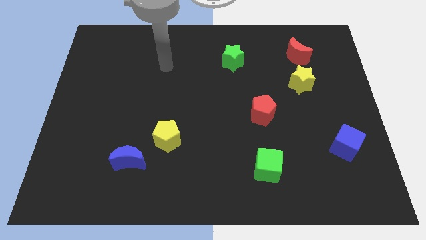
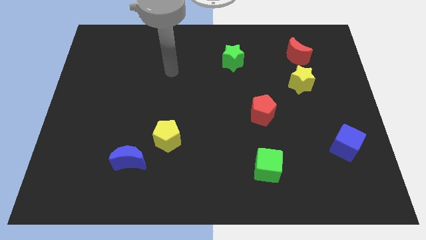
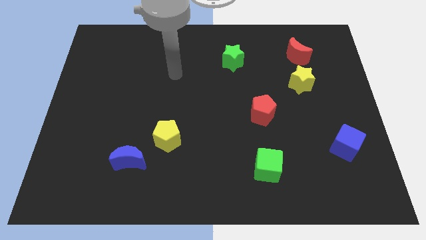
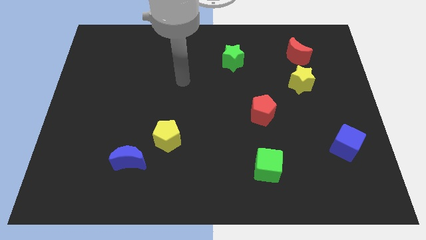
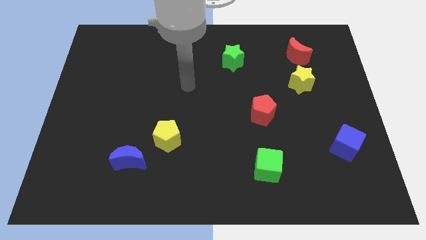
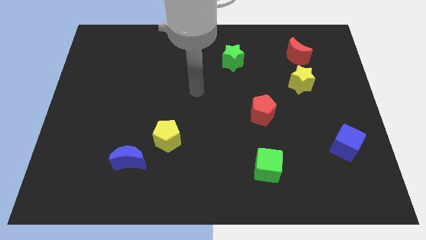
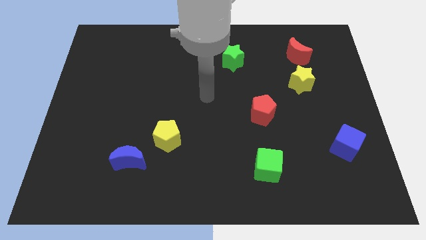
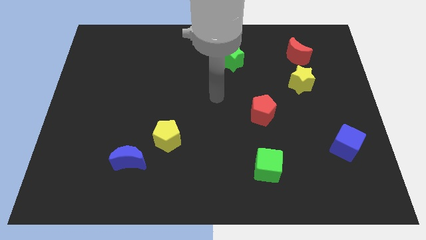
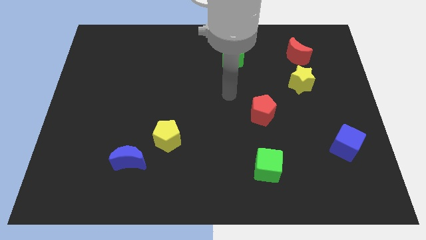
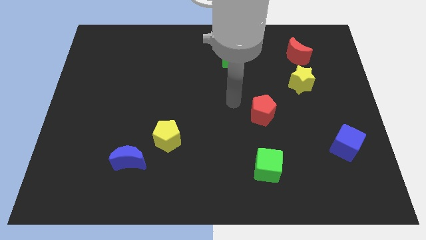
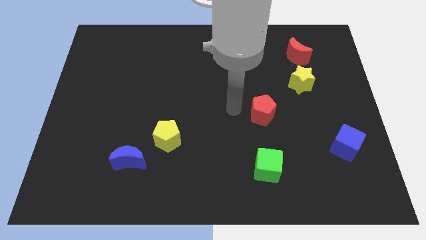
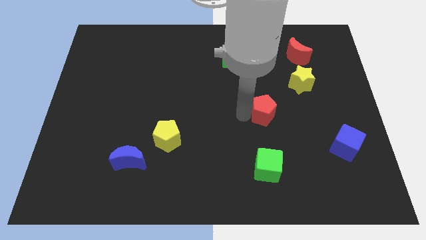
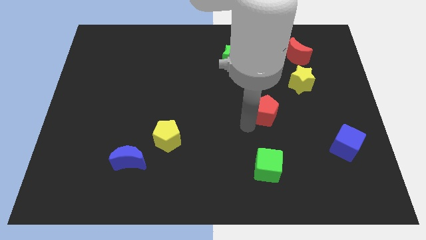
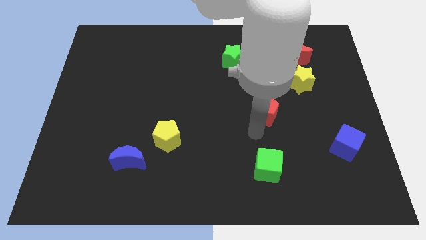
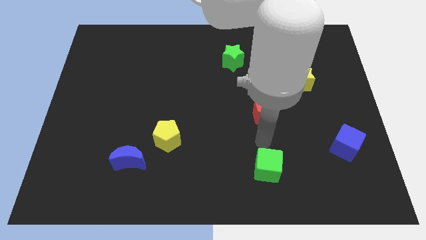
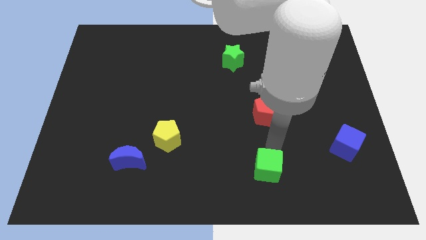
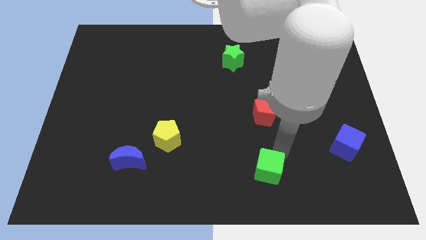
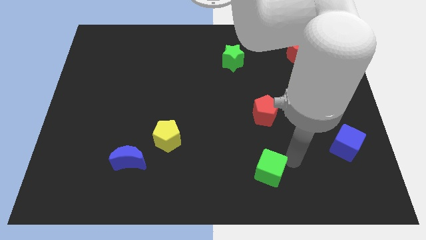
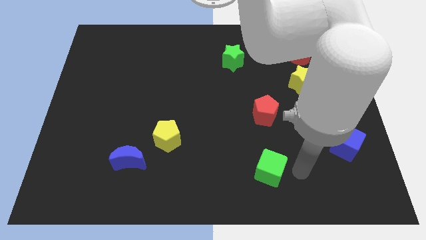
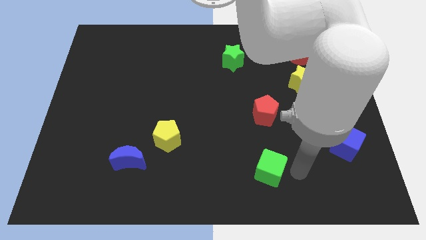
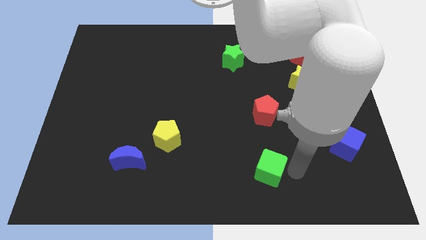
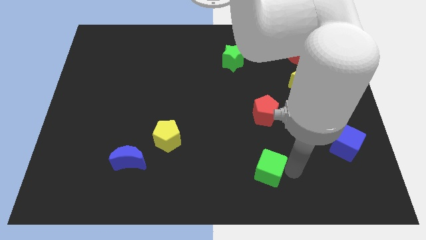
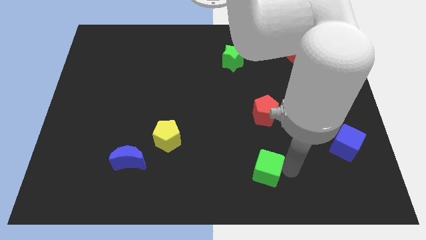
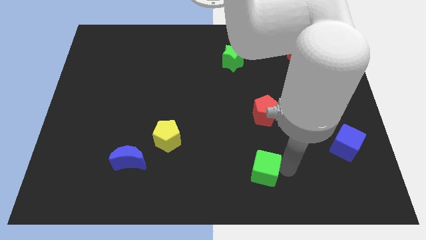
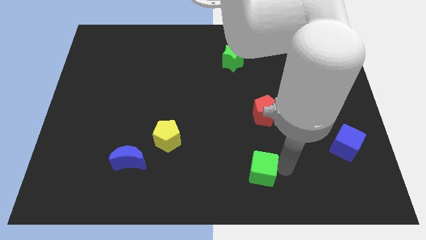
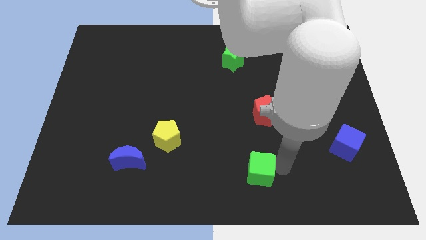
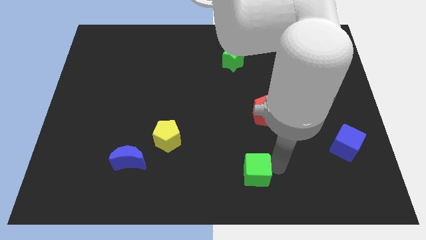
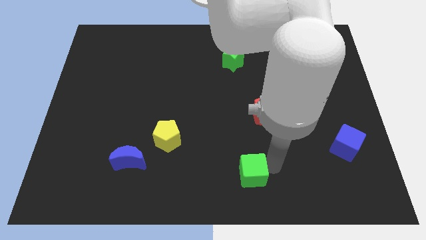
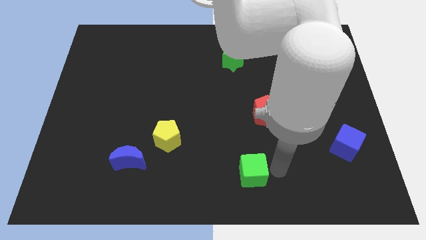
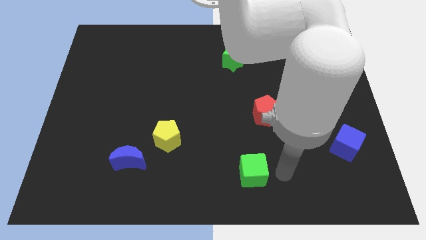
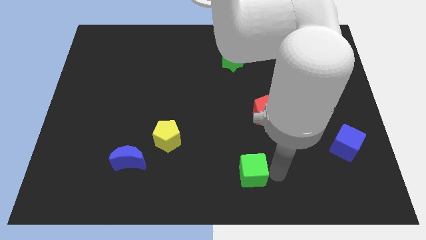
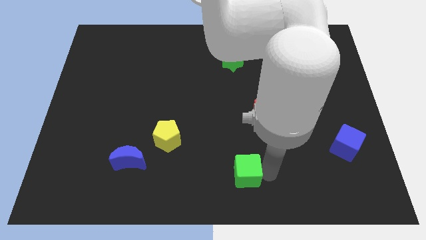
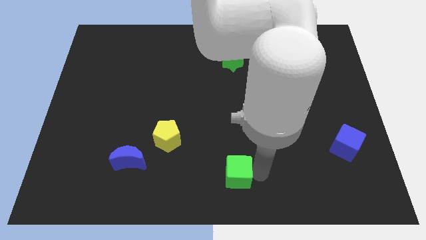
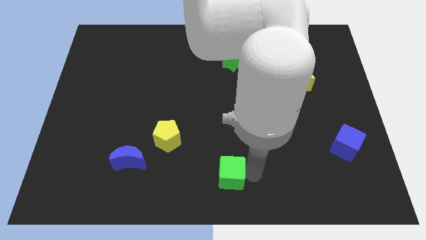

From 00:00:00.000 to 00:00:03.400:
slightly move the green cube to the left

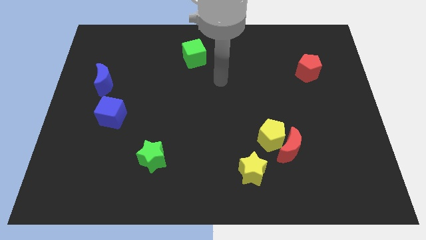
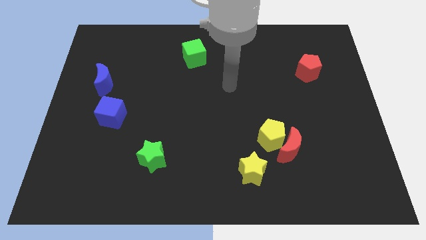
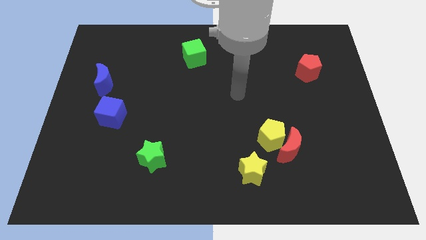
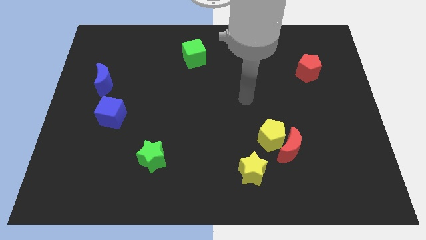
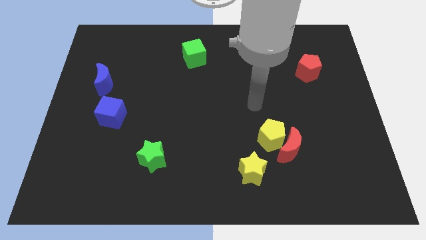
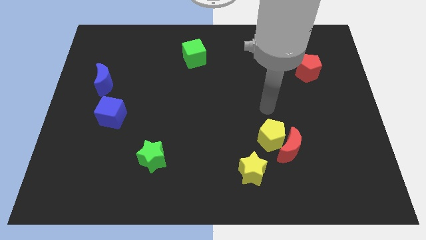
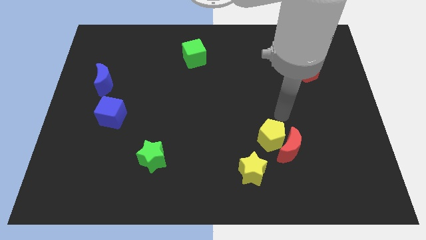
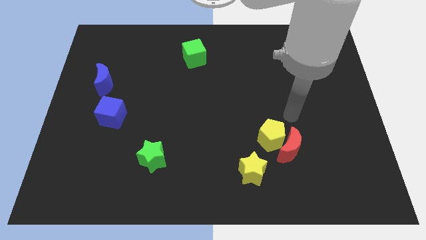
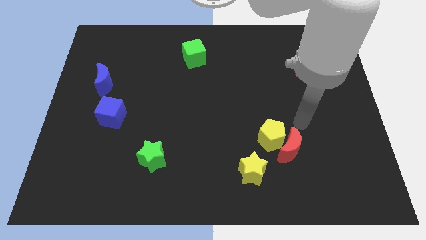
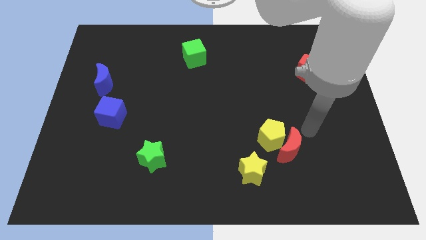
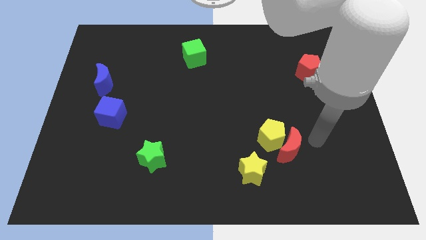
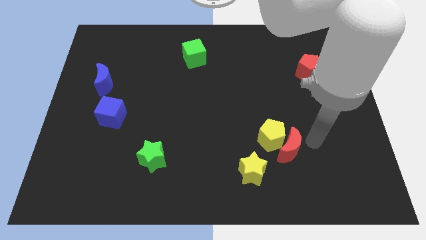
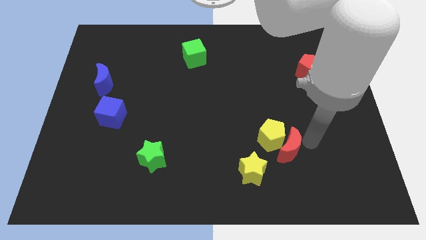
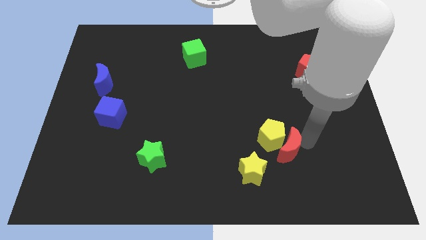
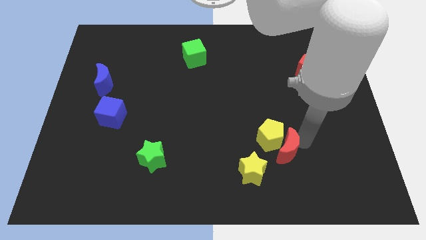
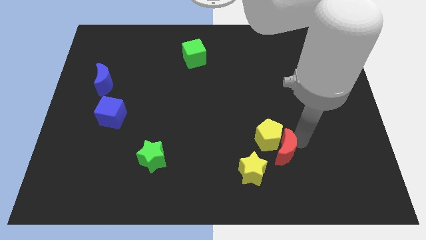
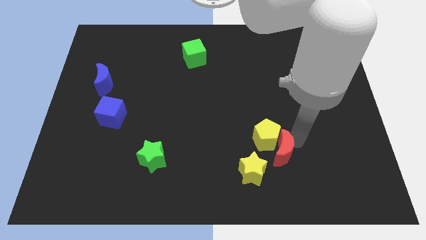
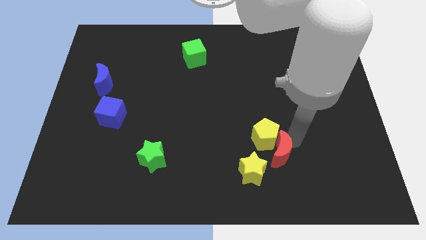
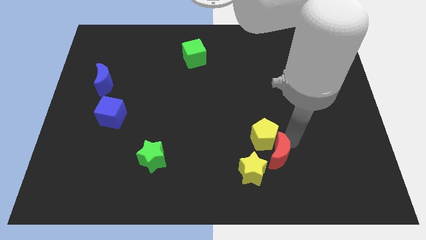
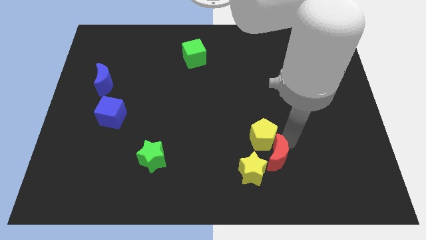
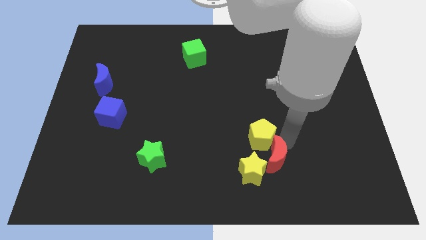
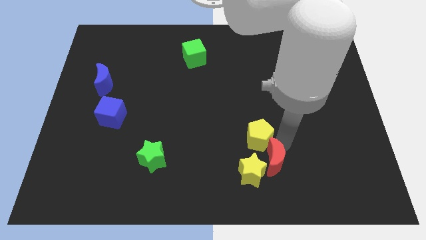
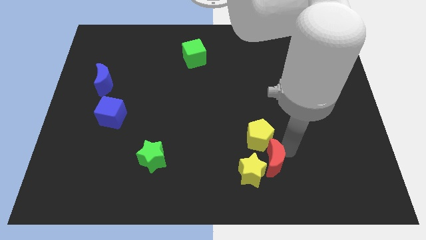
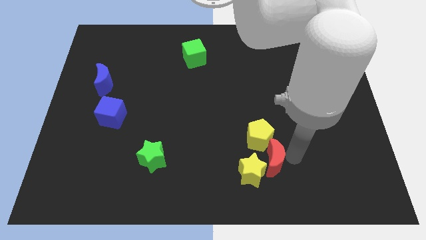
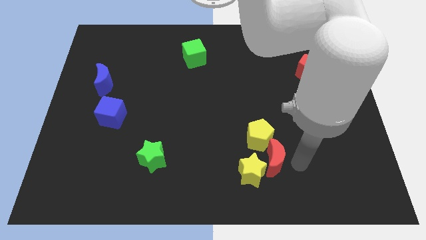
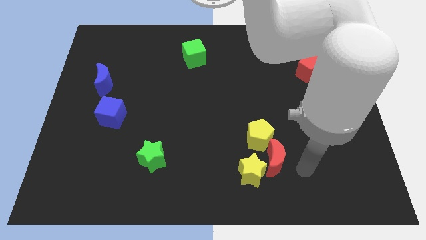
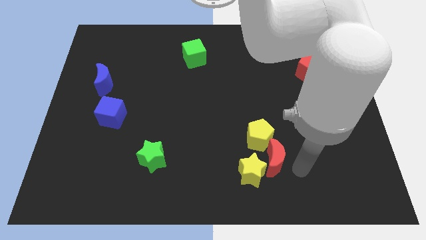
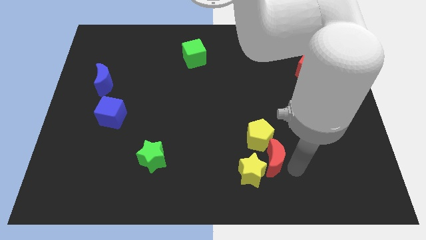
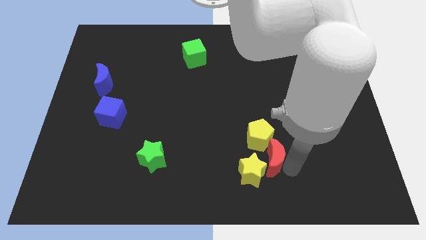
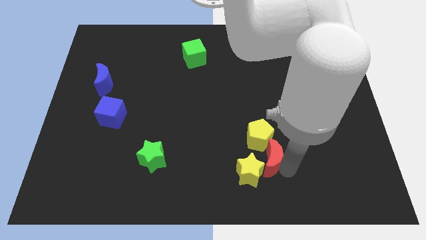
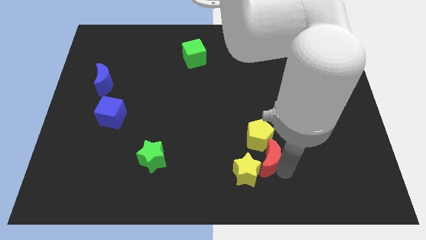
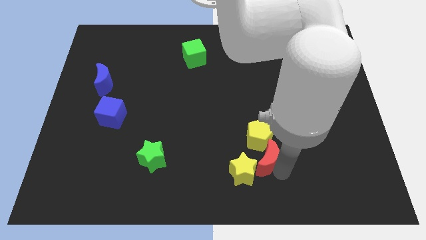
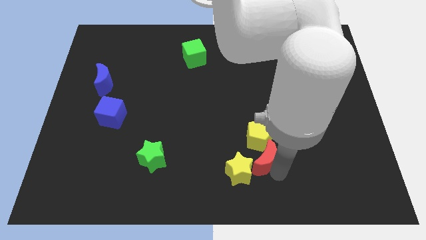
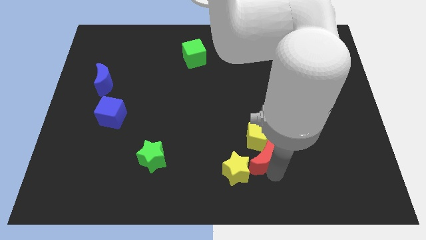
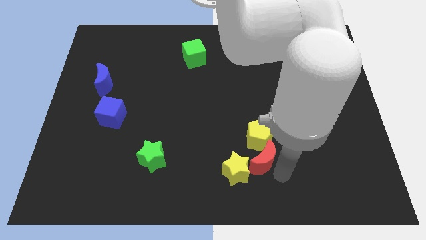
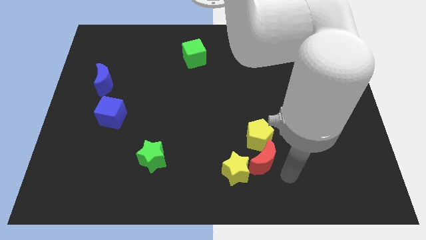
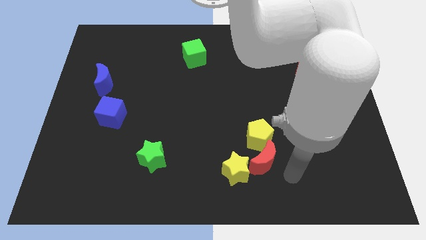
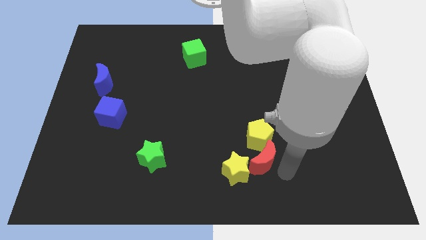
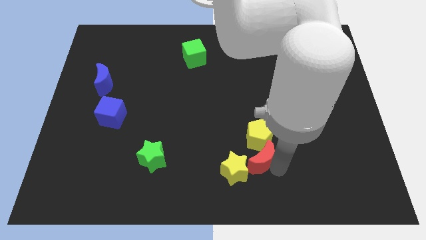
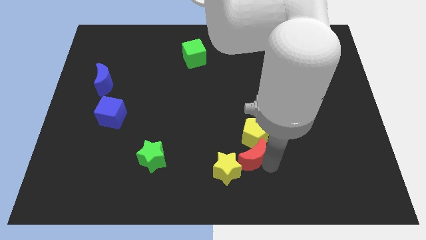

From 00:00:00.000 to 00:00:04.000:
push the red moon left a bit

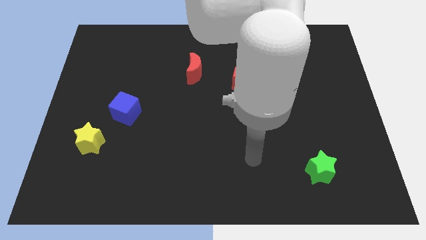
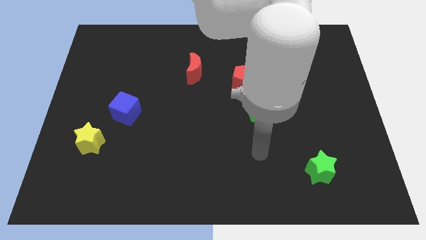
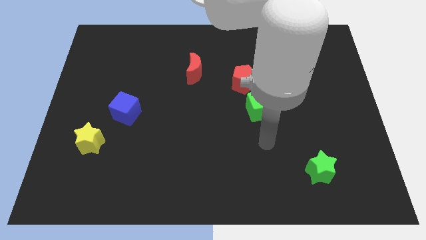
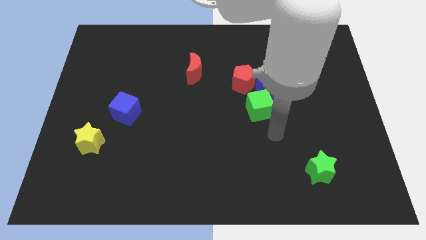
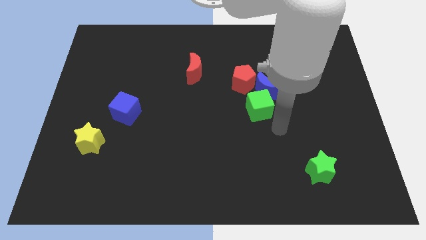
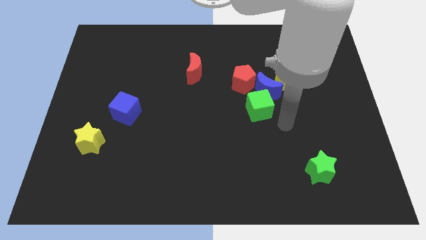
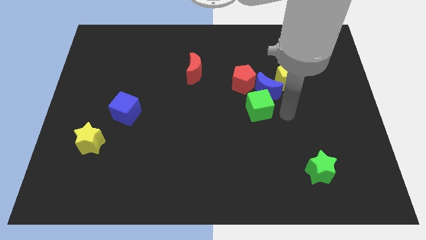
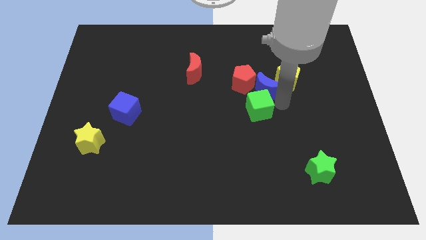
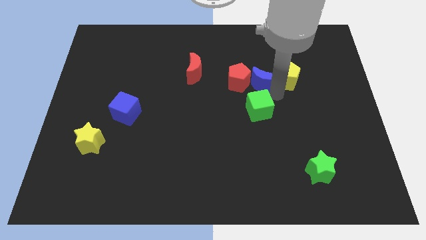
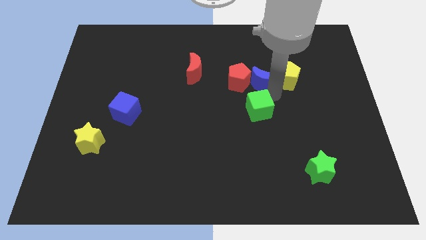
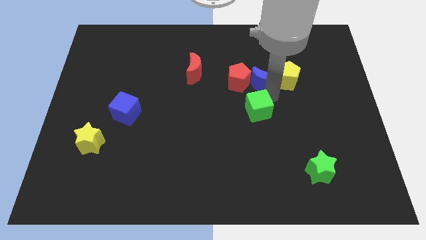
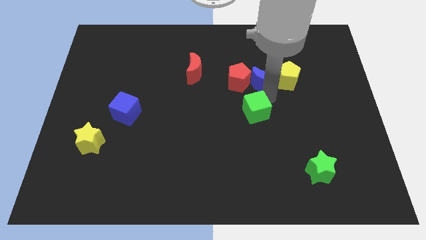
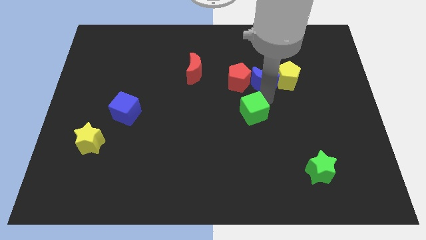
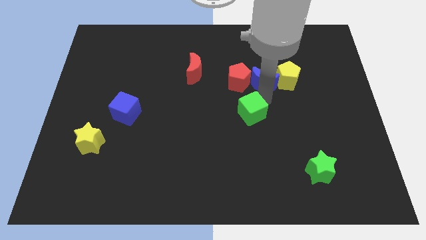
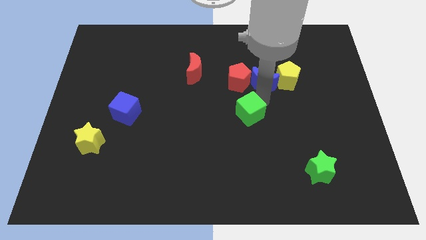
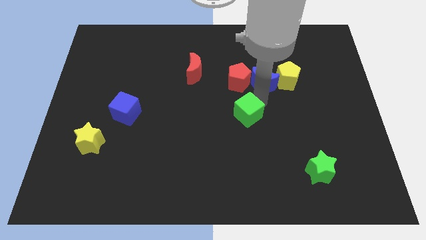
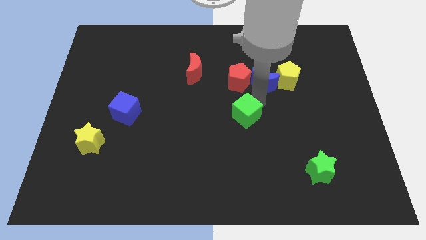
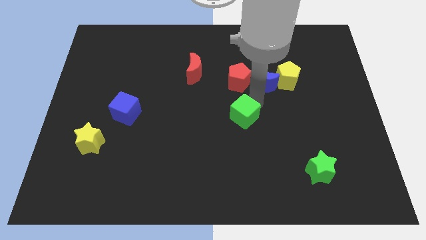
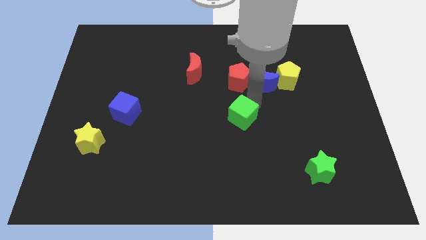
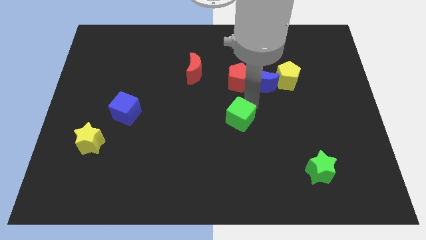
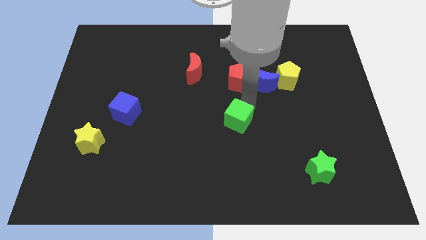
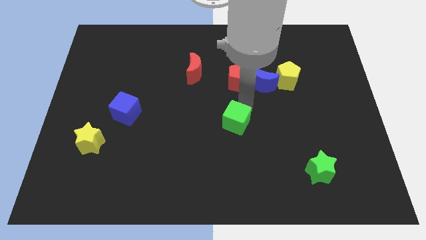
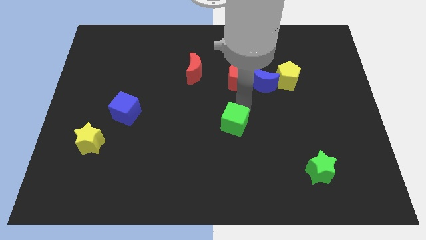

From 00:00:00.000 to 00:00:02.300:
slightly push the green cube downwards and to the left diagonally
